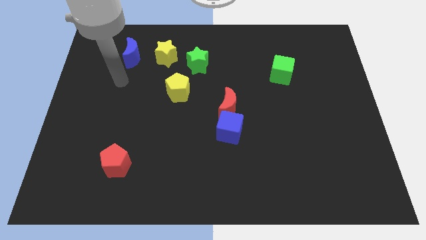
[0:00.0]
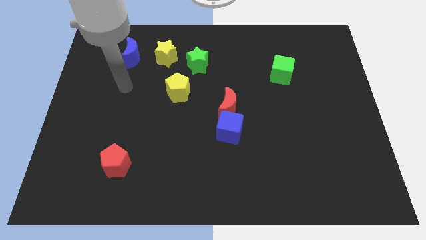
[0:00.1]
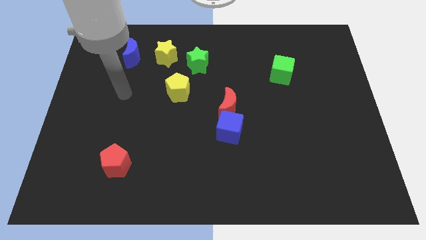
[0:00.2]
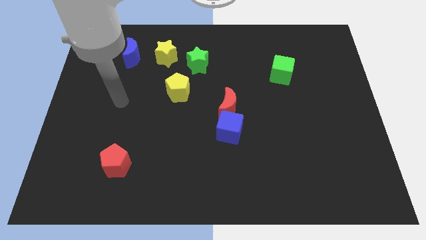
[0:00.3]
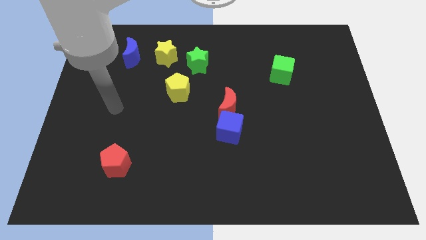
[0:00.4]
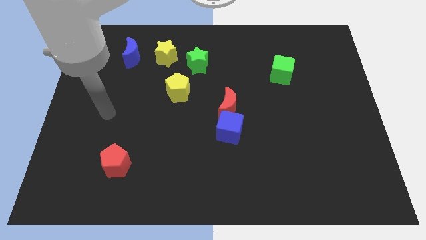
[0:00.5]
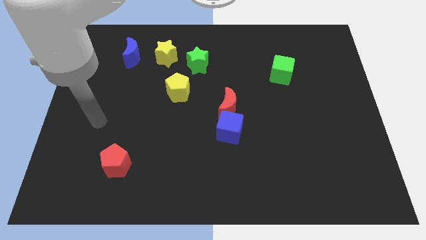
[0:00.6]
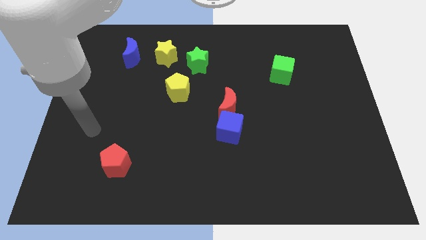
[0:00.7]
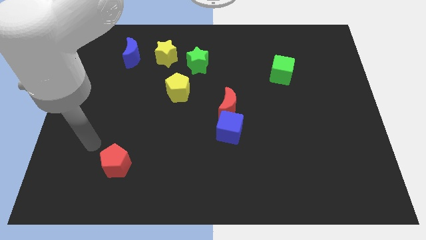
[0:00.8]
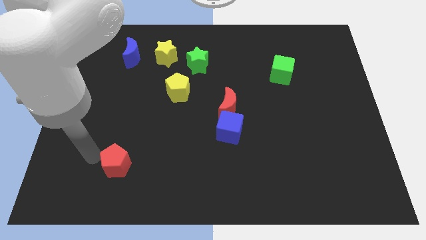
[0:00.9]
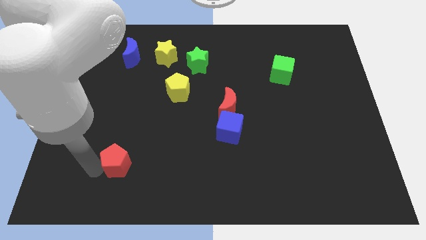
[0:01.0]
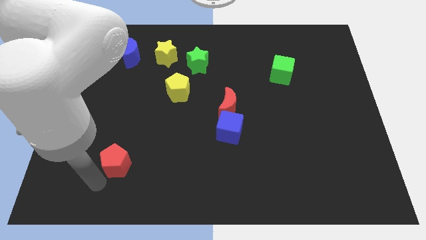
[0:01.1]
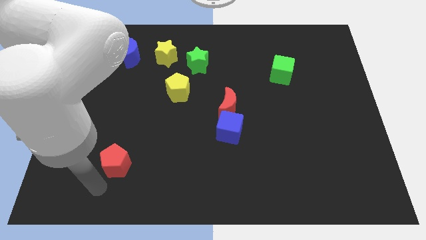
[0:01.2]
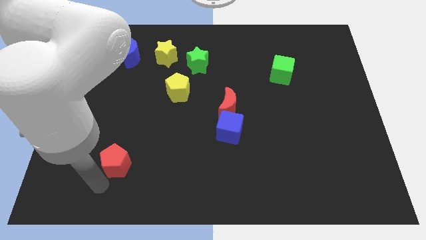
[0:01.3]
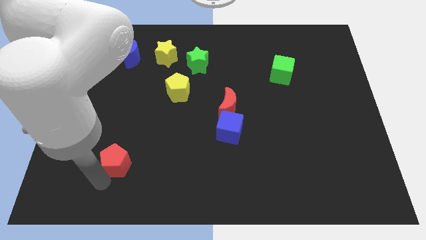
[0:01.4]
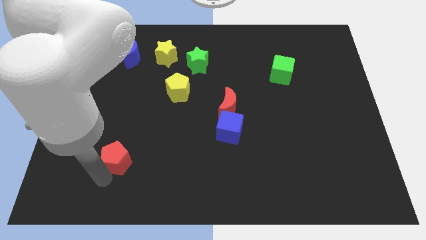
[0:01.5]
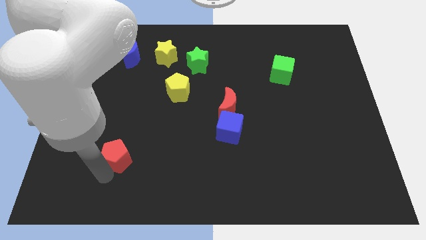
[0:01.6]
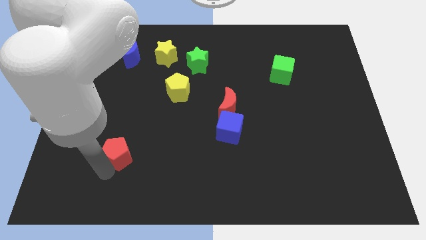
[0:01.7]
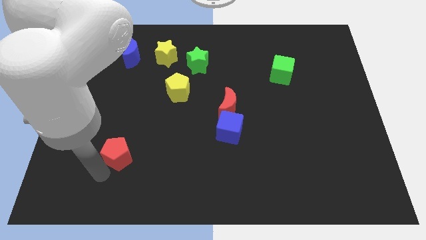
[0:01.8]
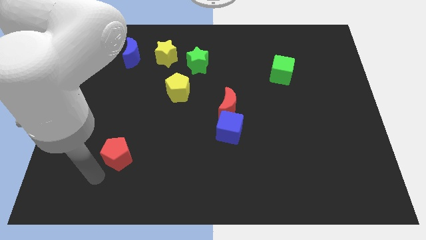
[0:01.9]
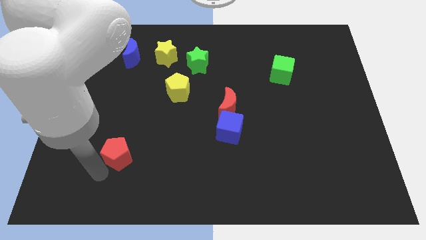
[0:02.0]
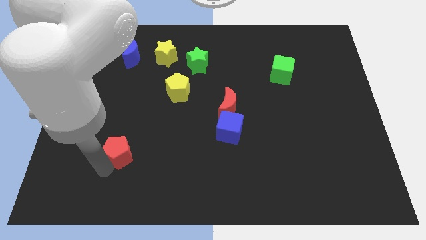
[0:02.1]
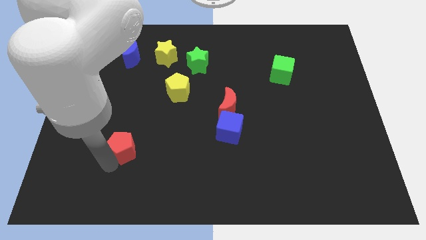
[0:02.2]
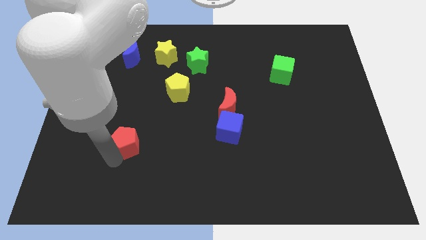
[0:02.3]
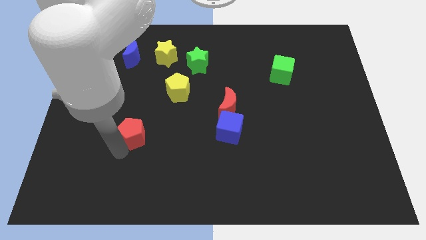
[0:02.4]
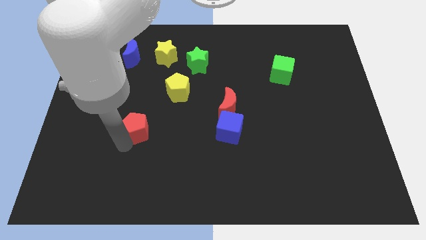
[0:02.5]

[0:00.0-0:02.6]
move the red pentagon upwards and to the right a little bit

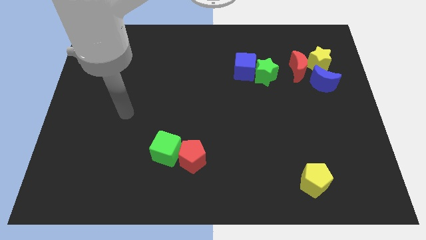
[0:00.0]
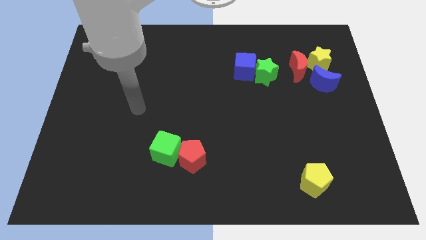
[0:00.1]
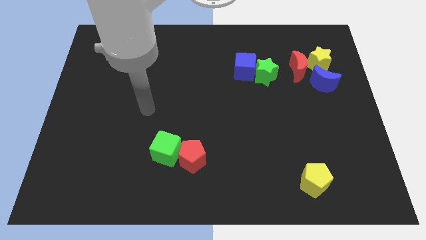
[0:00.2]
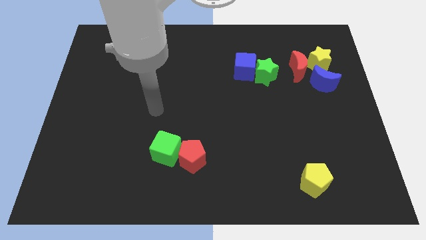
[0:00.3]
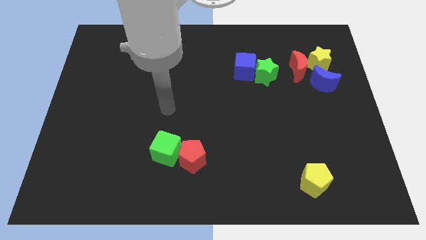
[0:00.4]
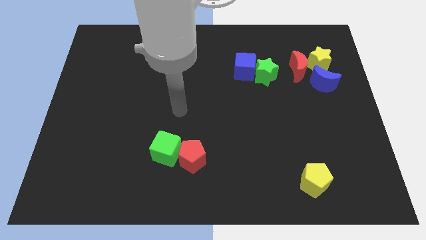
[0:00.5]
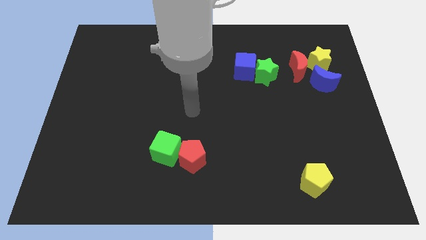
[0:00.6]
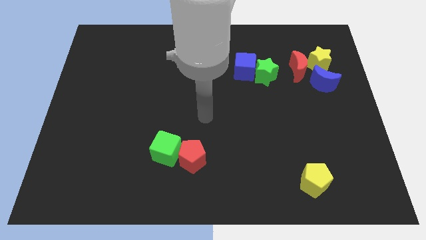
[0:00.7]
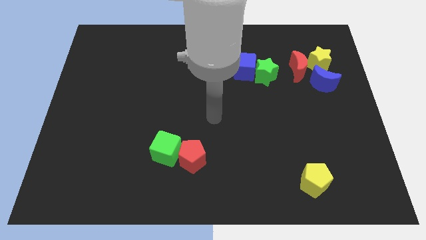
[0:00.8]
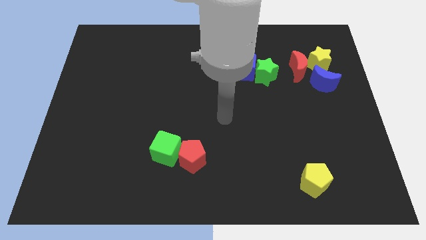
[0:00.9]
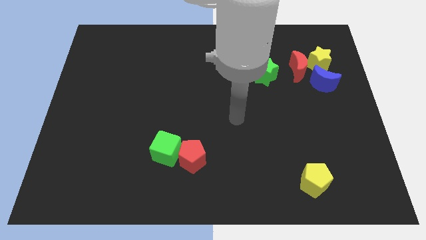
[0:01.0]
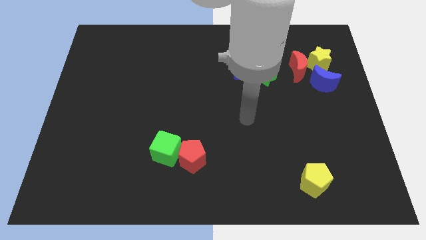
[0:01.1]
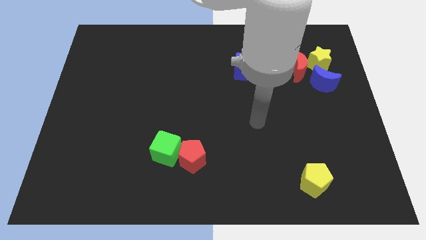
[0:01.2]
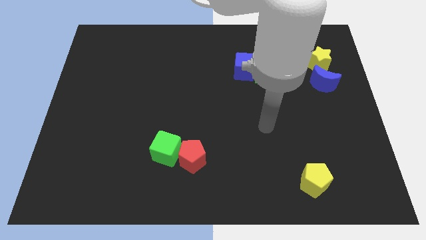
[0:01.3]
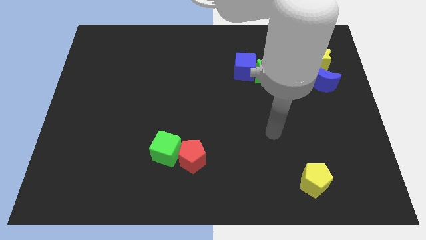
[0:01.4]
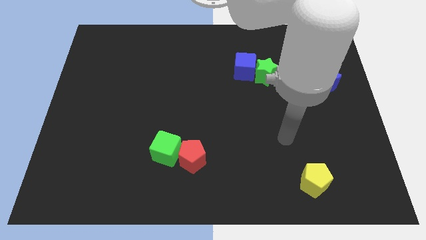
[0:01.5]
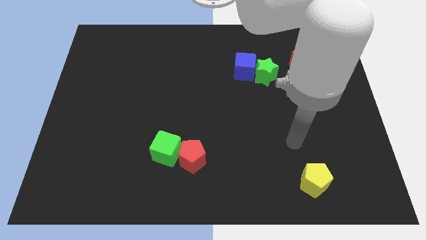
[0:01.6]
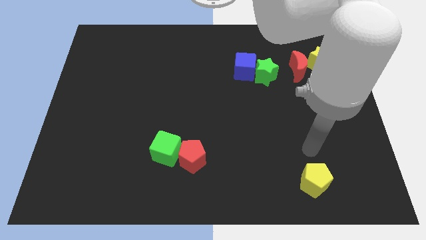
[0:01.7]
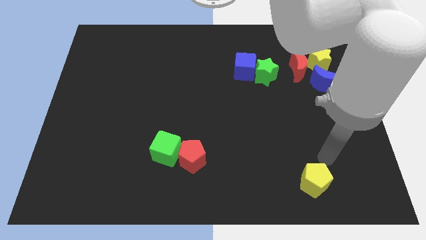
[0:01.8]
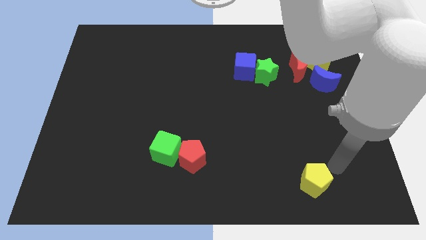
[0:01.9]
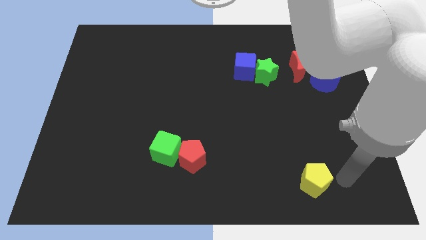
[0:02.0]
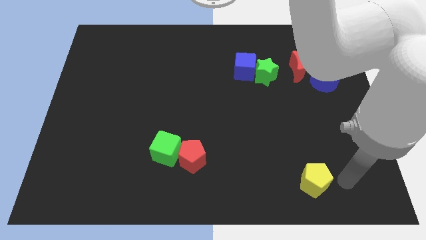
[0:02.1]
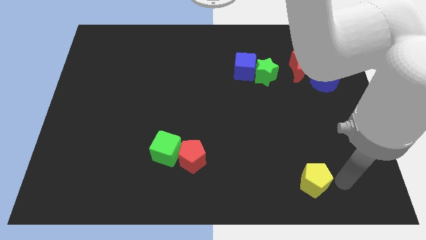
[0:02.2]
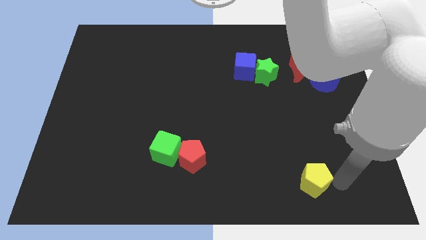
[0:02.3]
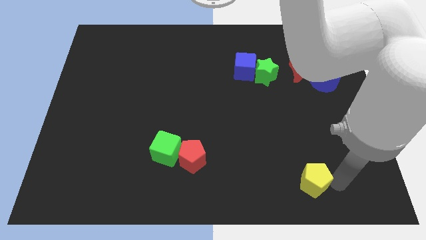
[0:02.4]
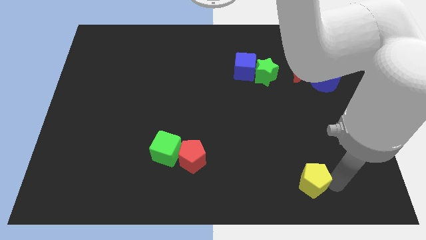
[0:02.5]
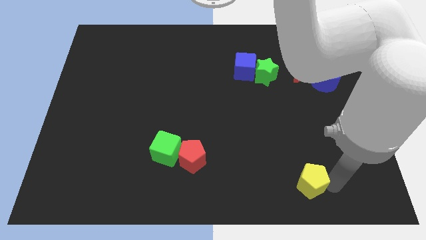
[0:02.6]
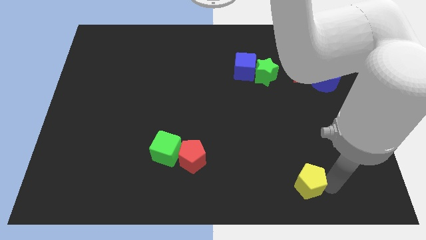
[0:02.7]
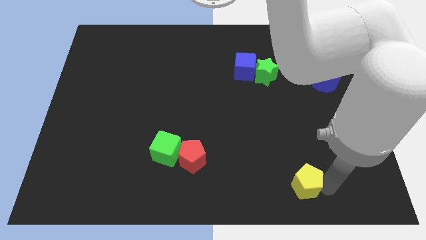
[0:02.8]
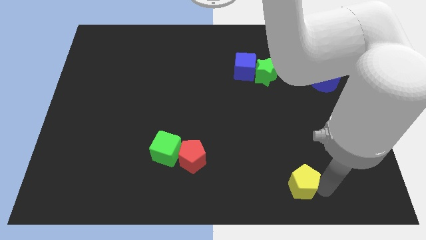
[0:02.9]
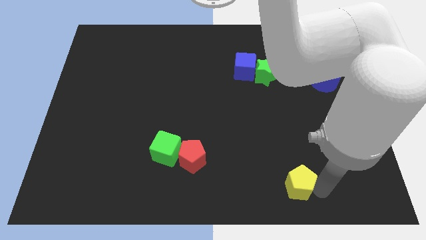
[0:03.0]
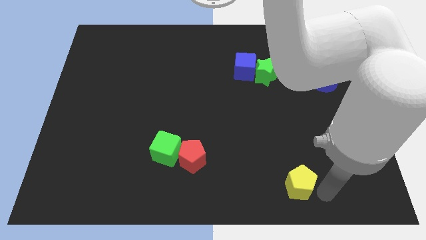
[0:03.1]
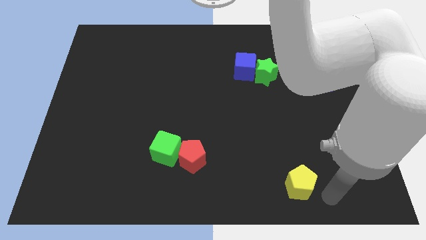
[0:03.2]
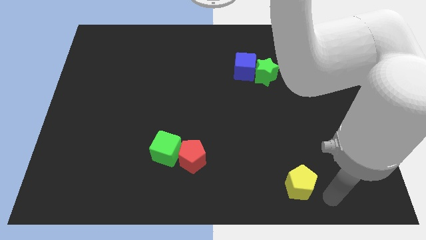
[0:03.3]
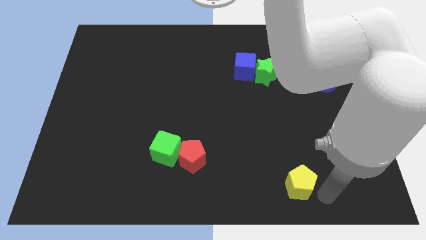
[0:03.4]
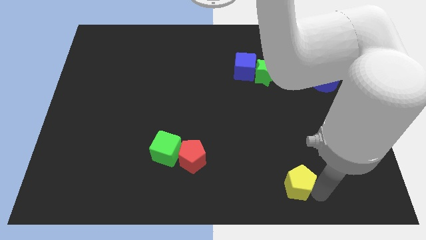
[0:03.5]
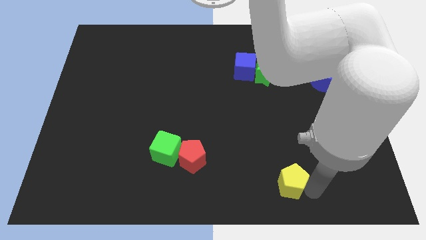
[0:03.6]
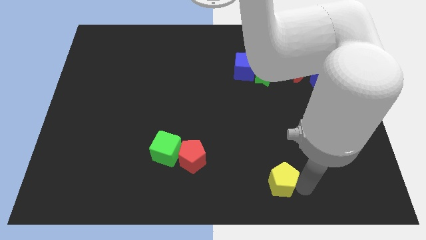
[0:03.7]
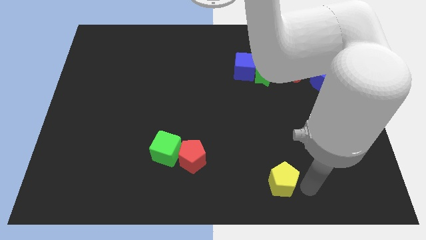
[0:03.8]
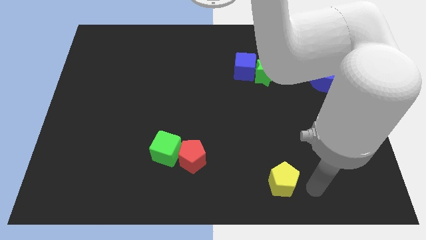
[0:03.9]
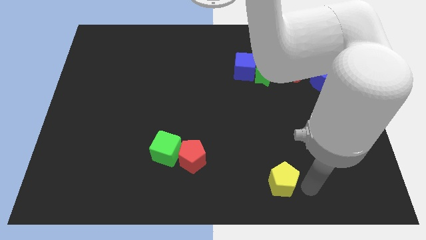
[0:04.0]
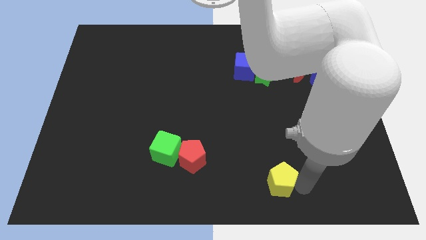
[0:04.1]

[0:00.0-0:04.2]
push the yellow pentagon left a little bit

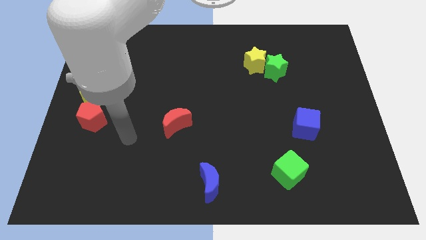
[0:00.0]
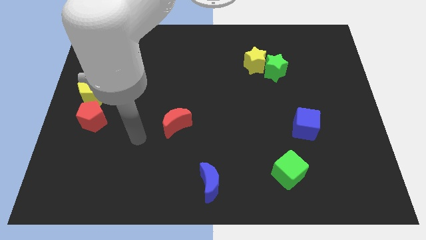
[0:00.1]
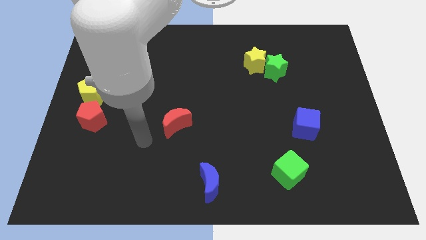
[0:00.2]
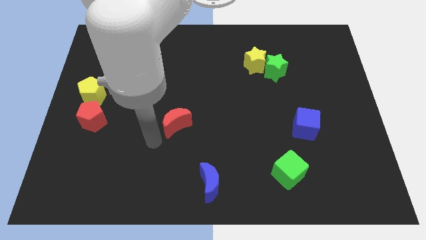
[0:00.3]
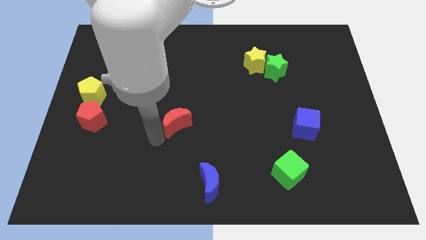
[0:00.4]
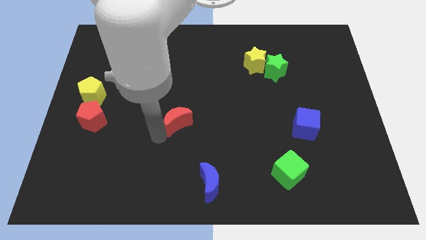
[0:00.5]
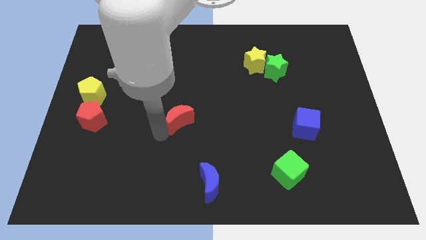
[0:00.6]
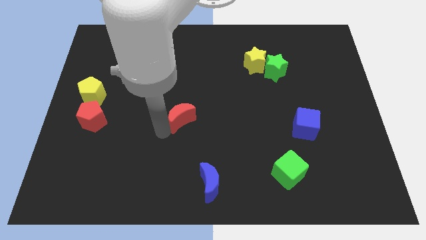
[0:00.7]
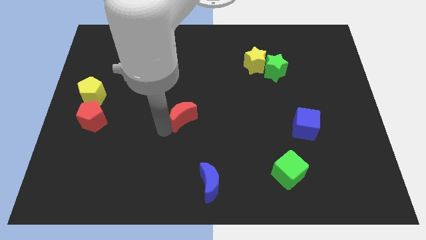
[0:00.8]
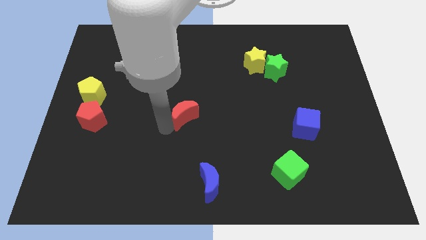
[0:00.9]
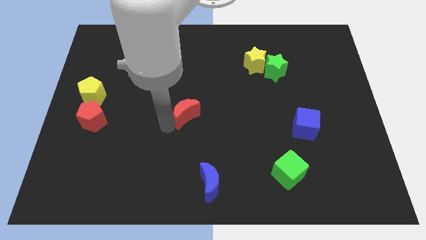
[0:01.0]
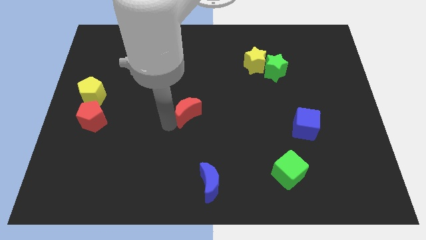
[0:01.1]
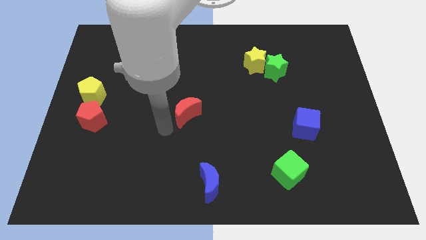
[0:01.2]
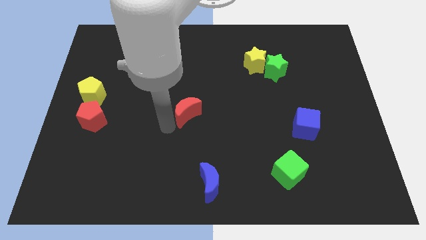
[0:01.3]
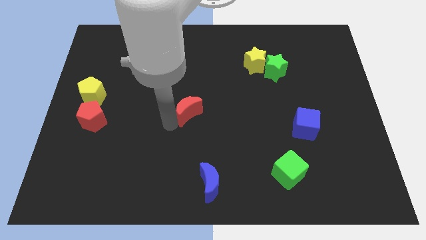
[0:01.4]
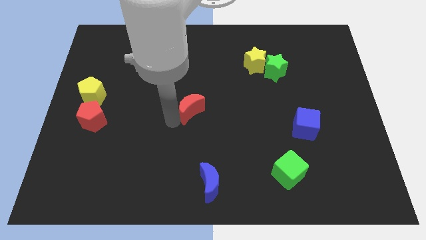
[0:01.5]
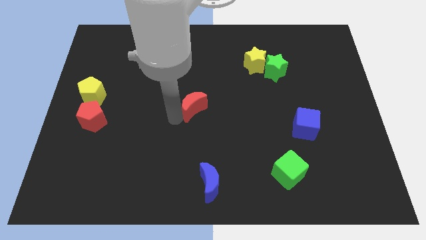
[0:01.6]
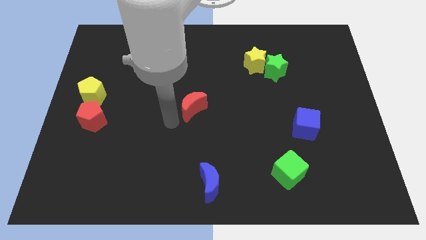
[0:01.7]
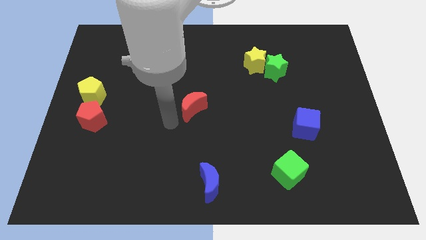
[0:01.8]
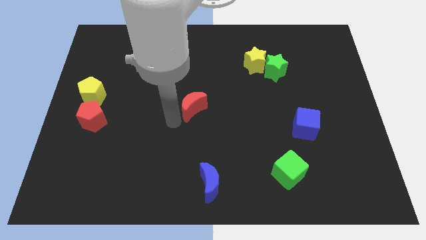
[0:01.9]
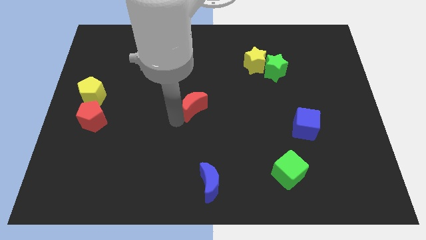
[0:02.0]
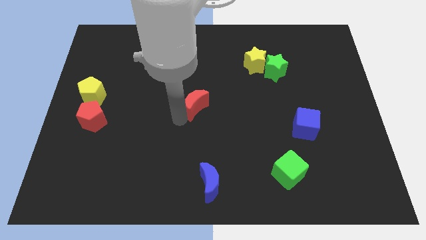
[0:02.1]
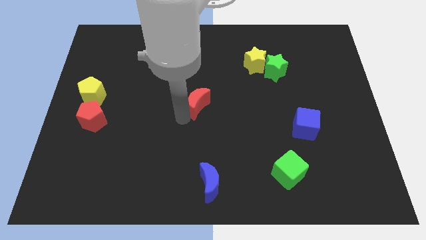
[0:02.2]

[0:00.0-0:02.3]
move the red moon a little bit upwards and to the right
